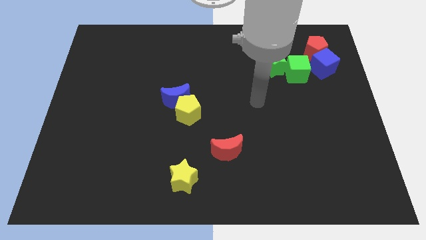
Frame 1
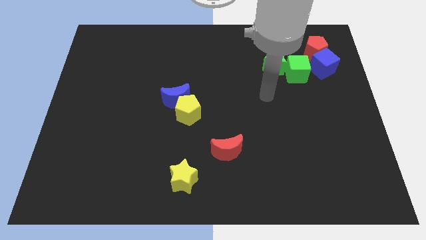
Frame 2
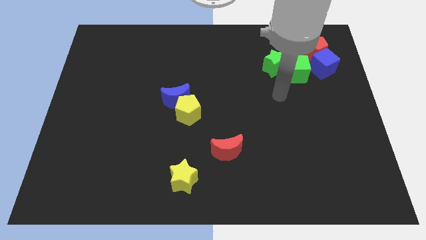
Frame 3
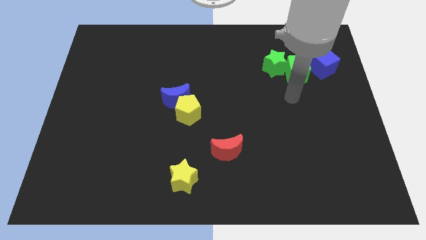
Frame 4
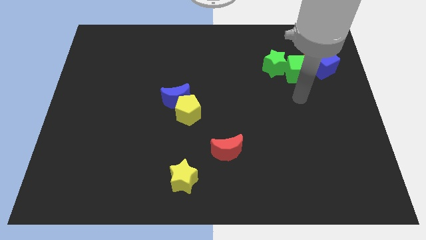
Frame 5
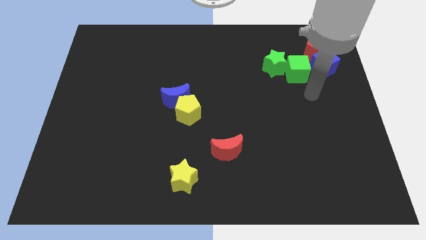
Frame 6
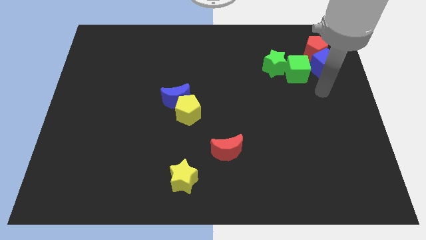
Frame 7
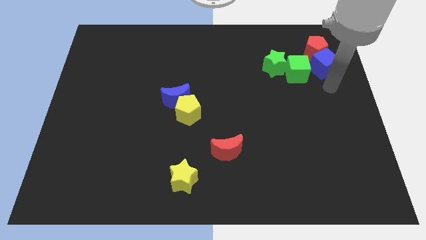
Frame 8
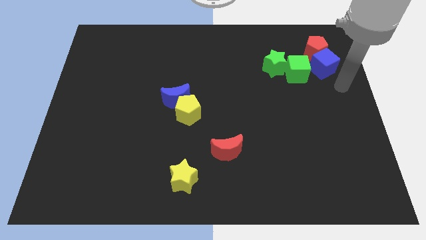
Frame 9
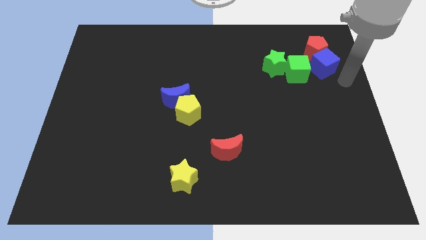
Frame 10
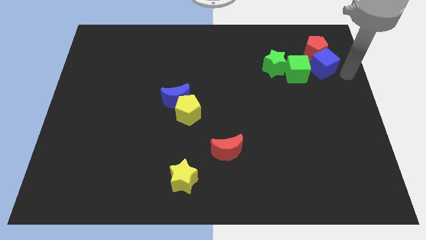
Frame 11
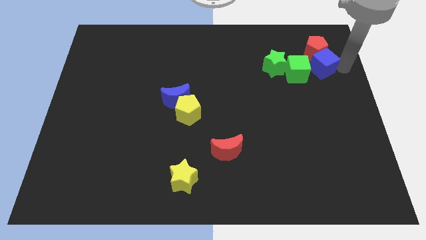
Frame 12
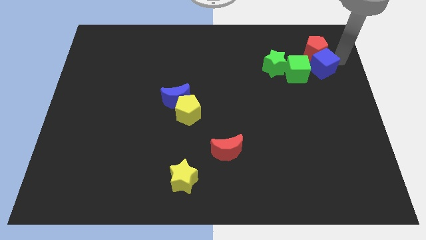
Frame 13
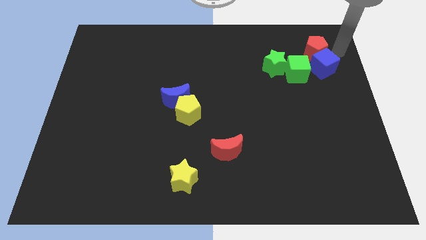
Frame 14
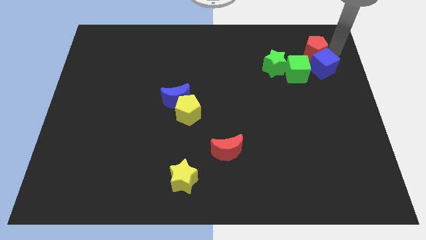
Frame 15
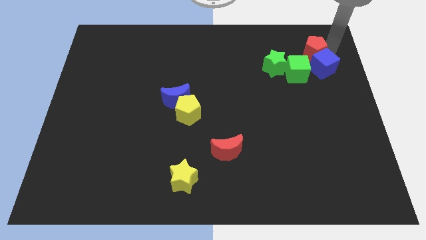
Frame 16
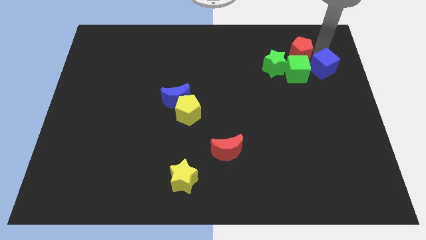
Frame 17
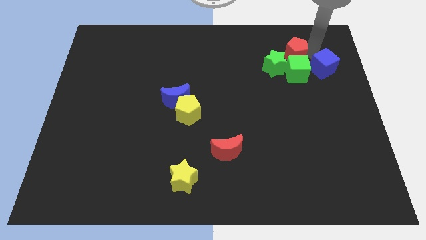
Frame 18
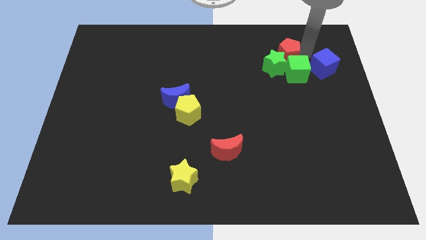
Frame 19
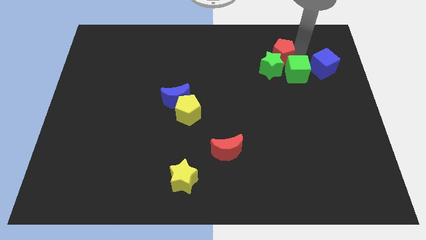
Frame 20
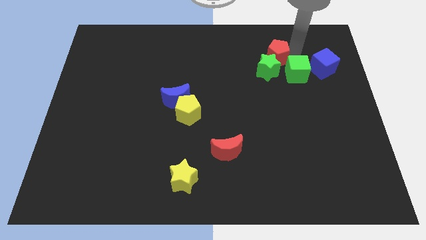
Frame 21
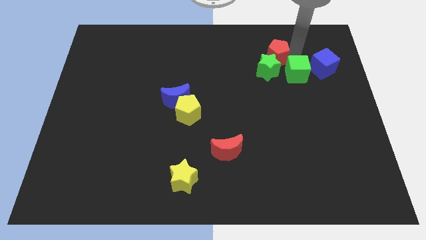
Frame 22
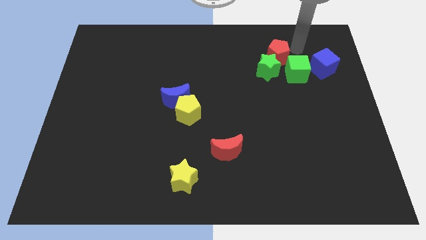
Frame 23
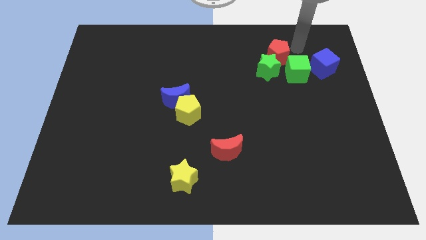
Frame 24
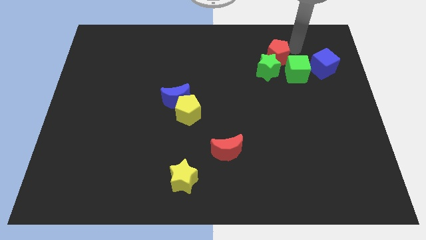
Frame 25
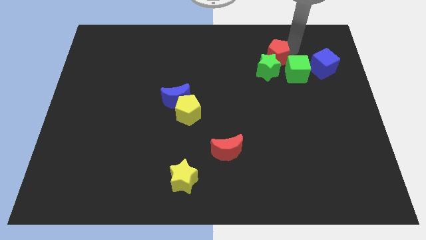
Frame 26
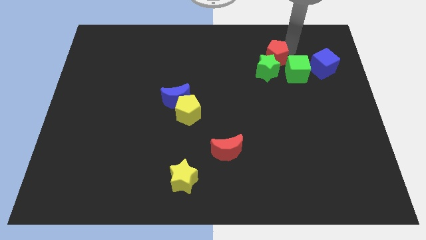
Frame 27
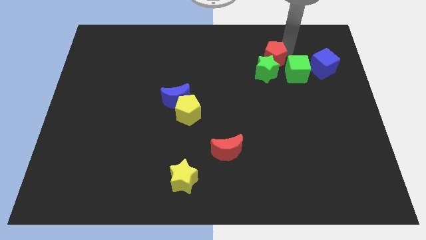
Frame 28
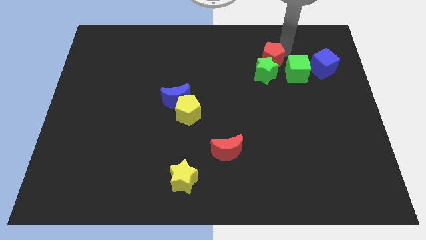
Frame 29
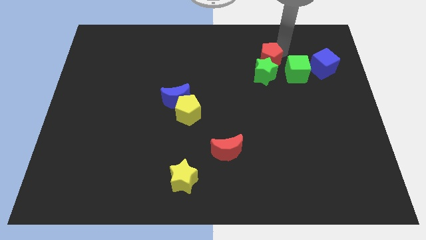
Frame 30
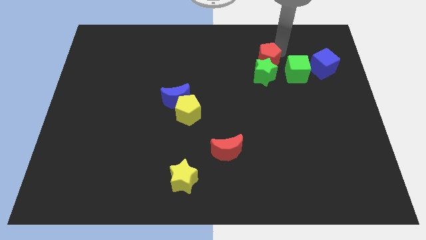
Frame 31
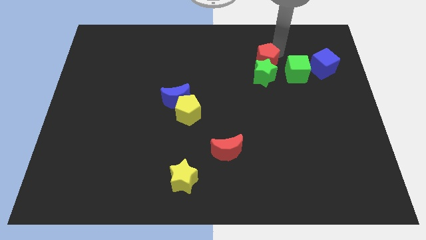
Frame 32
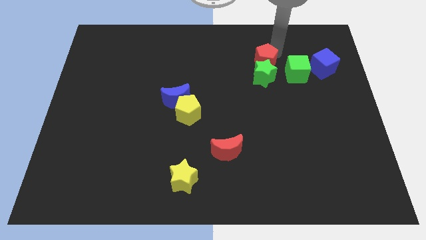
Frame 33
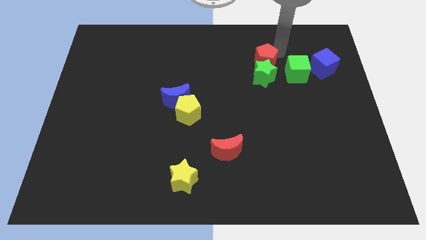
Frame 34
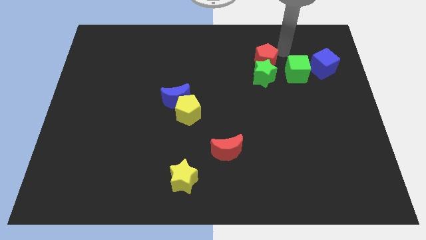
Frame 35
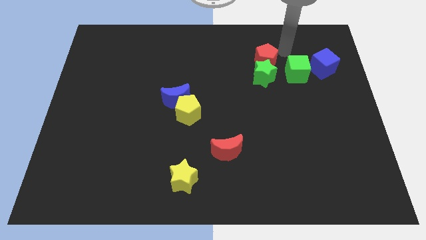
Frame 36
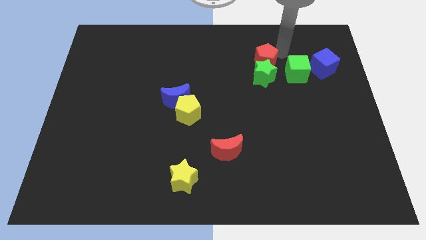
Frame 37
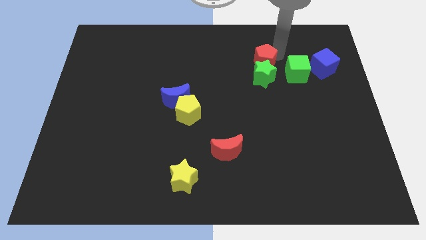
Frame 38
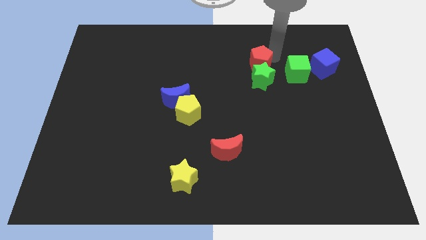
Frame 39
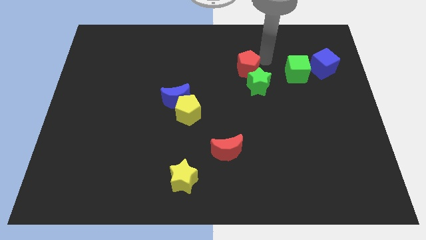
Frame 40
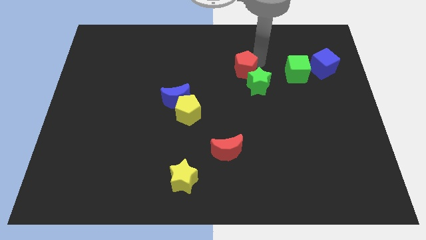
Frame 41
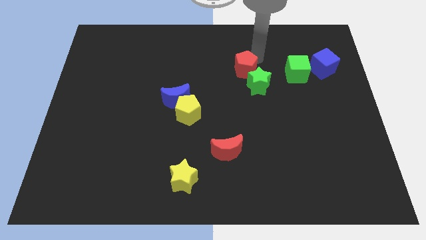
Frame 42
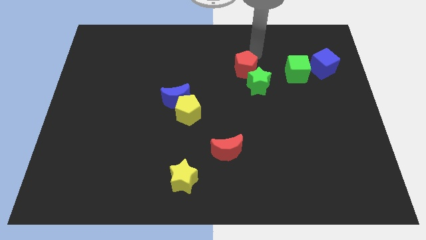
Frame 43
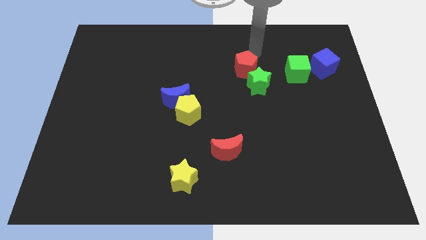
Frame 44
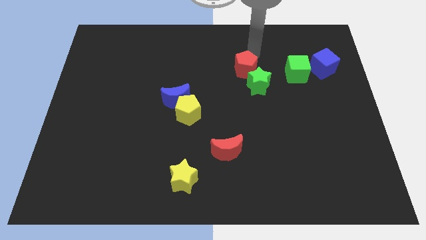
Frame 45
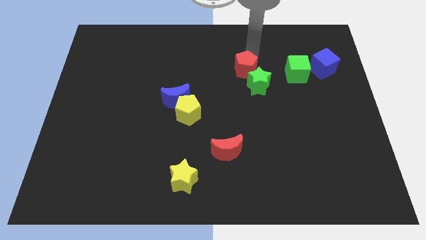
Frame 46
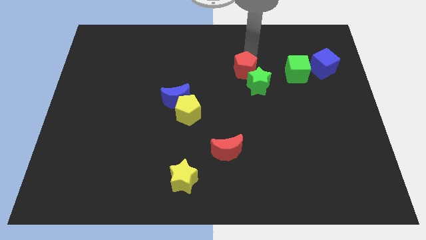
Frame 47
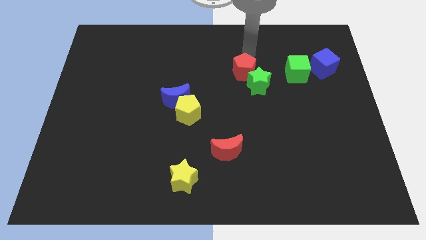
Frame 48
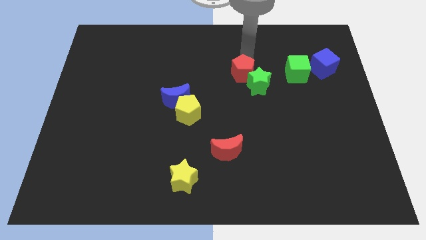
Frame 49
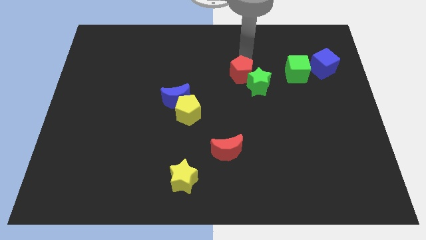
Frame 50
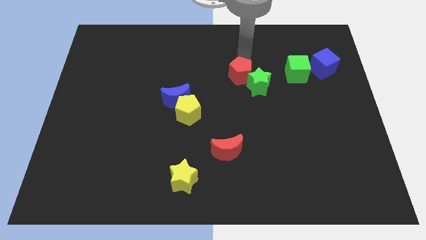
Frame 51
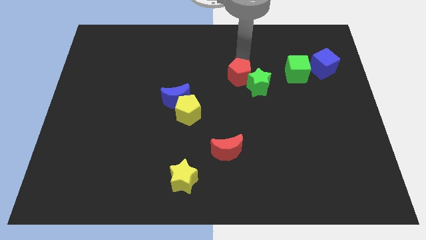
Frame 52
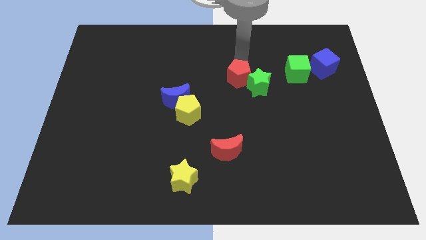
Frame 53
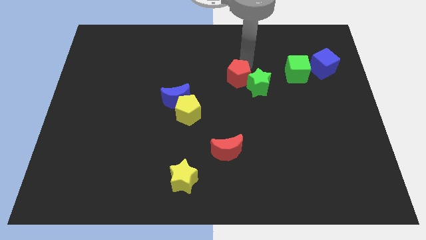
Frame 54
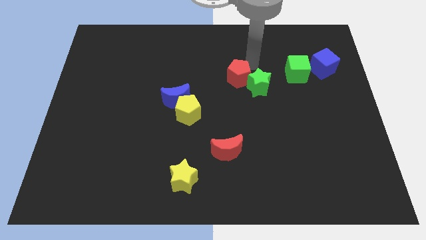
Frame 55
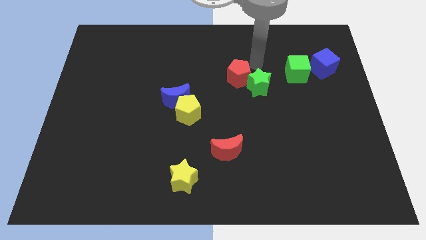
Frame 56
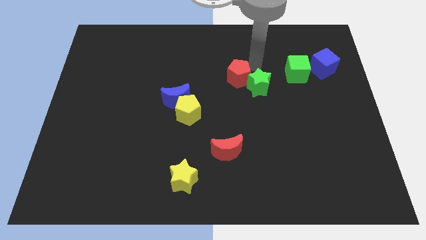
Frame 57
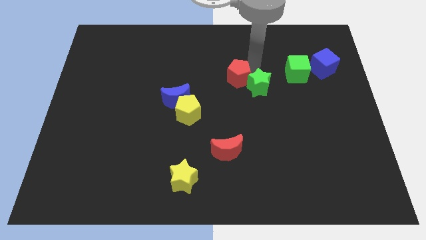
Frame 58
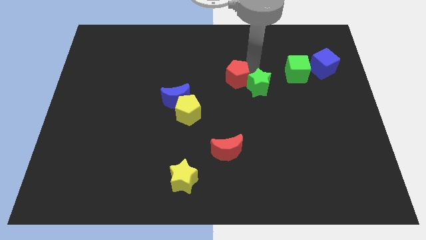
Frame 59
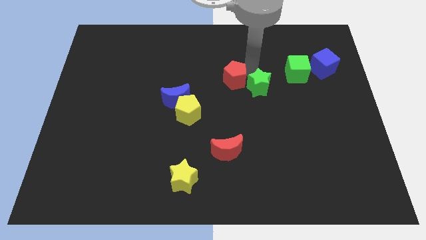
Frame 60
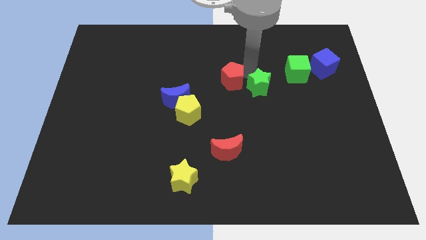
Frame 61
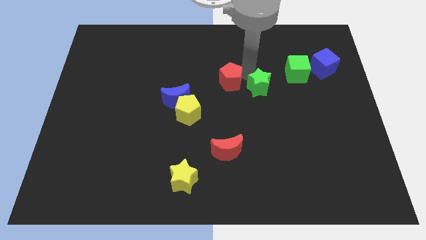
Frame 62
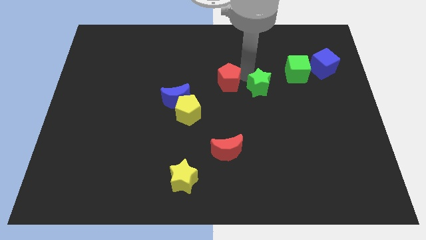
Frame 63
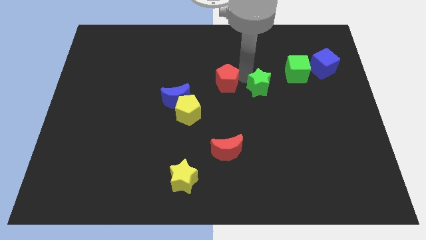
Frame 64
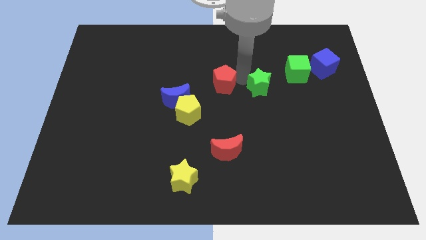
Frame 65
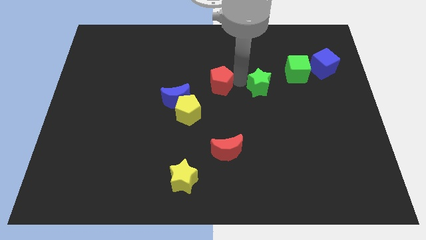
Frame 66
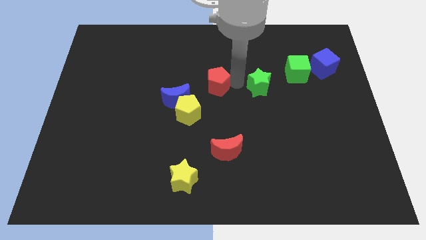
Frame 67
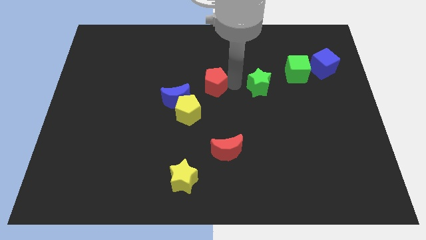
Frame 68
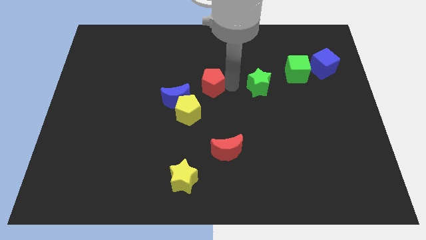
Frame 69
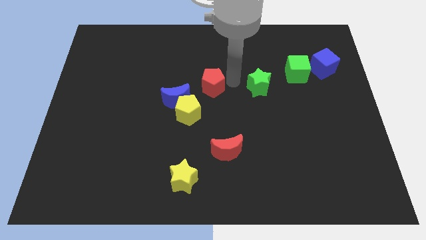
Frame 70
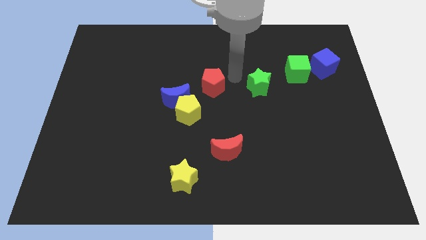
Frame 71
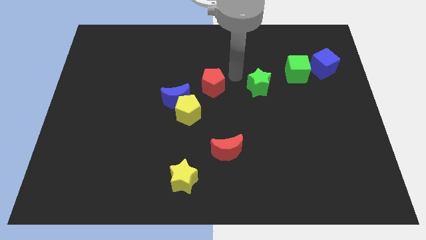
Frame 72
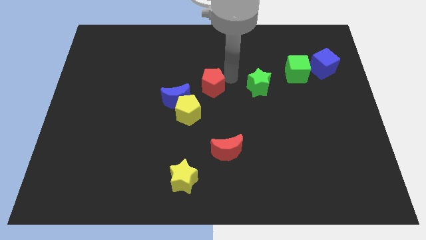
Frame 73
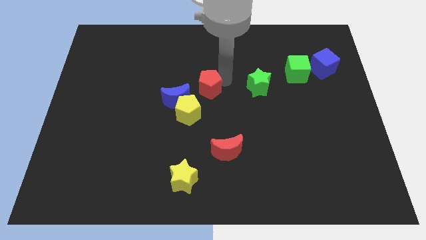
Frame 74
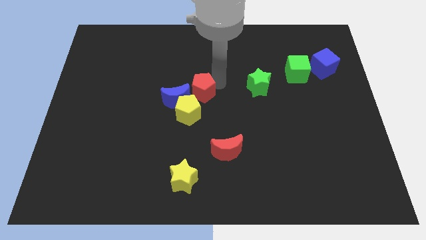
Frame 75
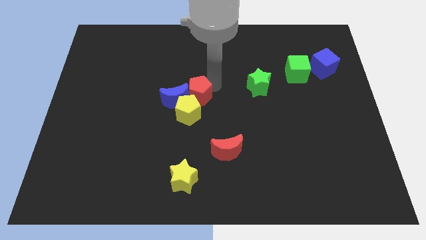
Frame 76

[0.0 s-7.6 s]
push the red pentagon next to the blue moon
